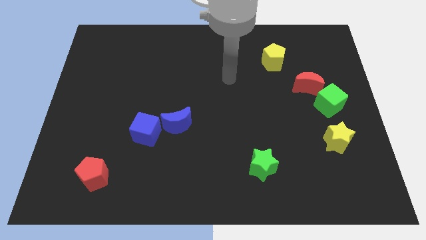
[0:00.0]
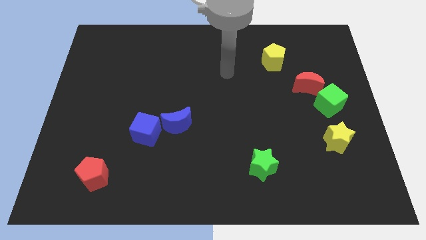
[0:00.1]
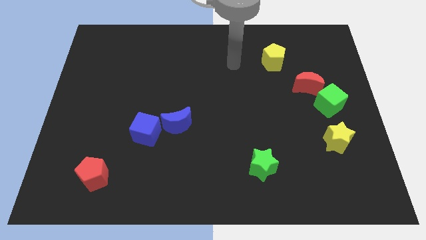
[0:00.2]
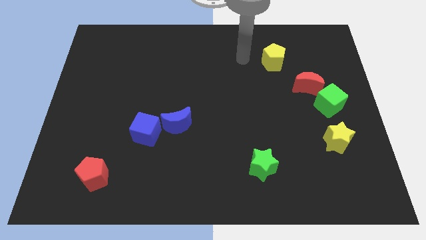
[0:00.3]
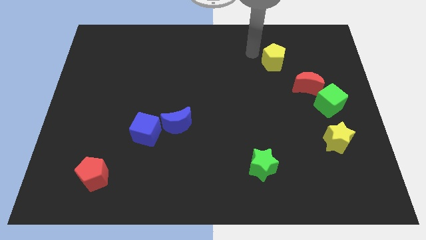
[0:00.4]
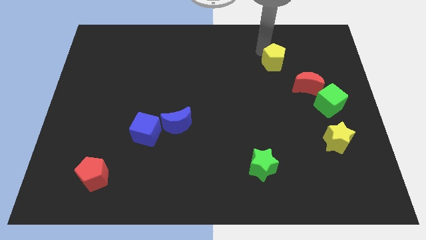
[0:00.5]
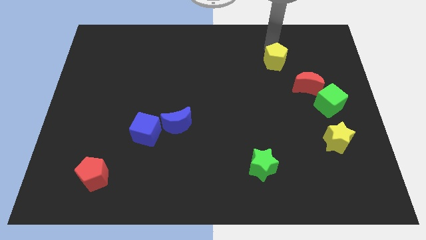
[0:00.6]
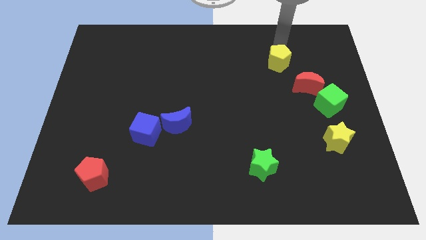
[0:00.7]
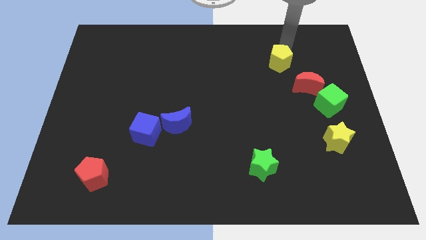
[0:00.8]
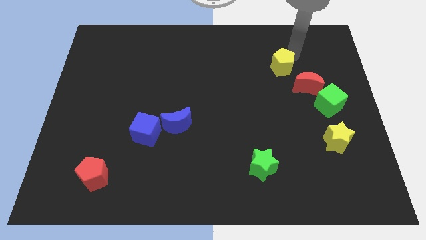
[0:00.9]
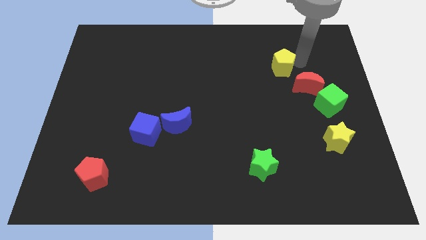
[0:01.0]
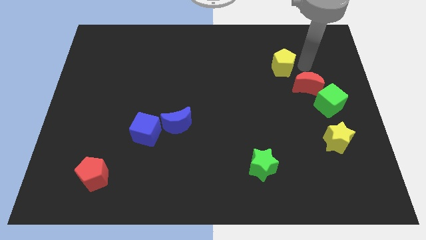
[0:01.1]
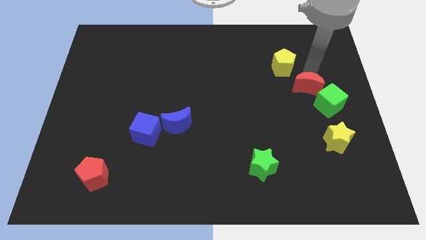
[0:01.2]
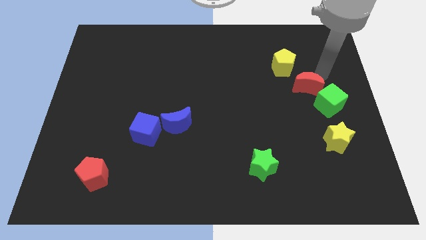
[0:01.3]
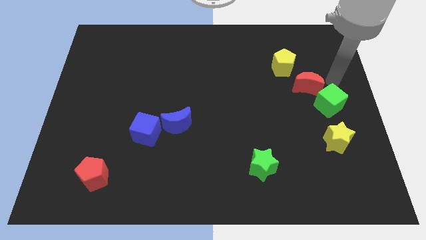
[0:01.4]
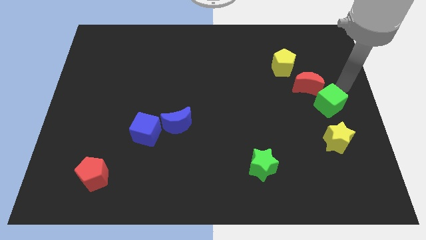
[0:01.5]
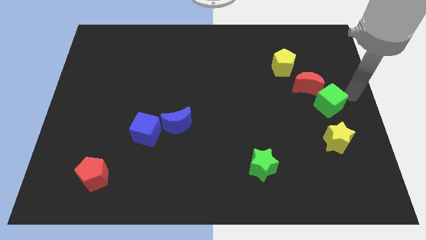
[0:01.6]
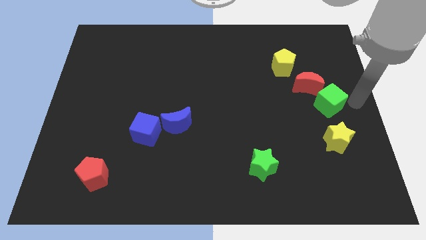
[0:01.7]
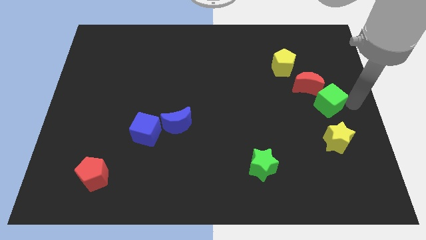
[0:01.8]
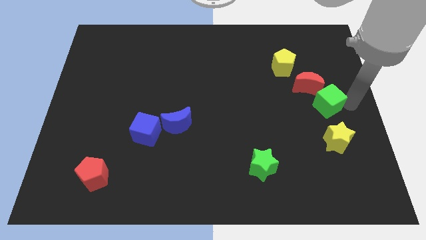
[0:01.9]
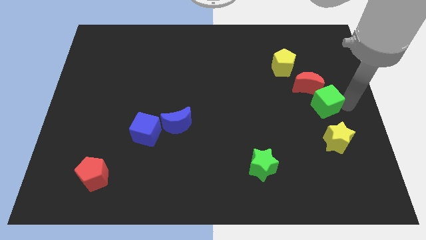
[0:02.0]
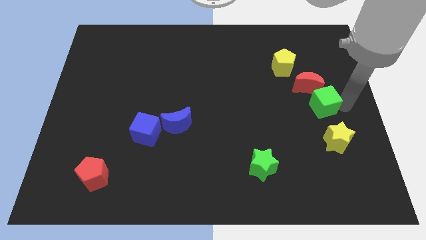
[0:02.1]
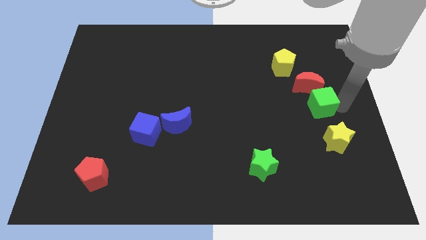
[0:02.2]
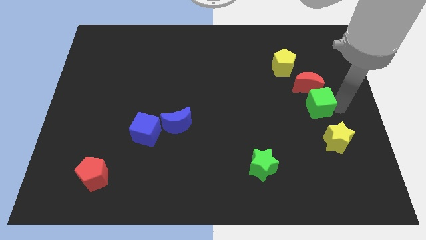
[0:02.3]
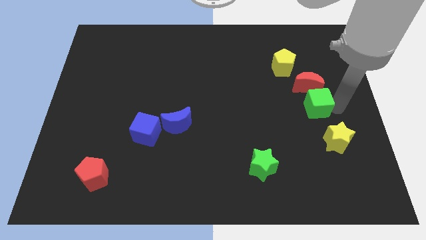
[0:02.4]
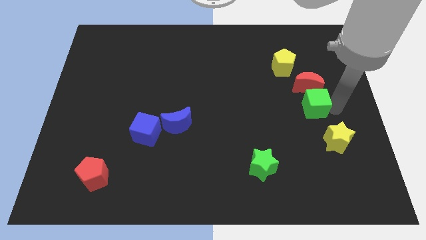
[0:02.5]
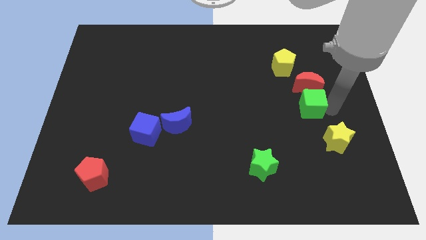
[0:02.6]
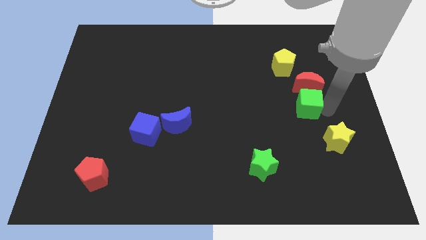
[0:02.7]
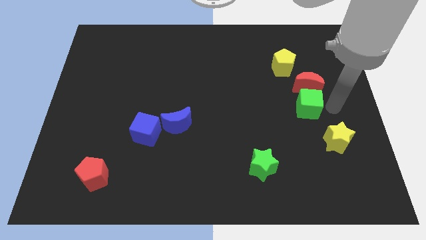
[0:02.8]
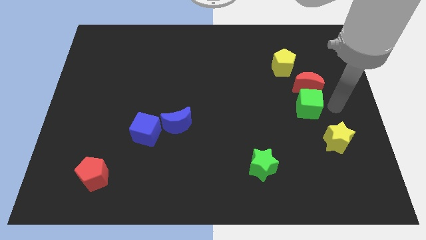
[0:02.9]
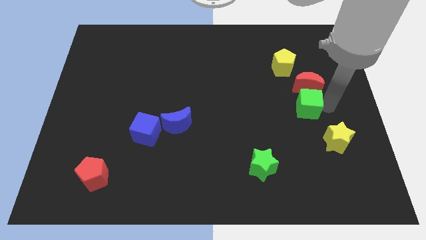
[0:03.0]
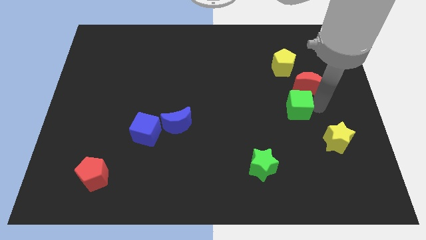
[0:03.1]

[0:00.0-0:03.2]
slightly move the green cube left

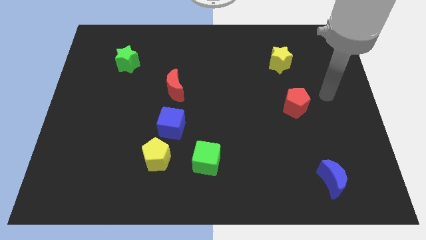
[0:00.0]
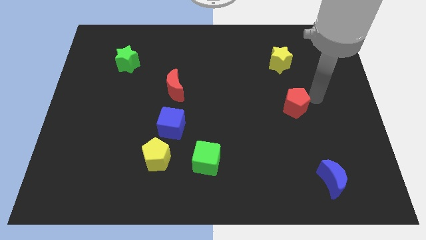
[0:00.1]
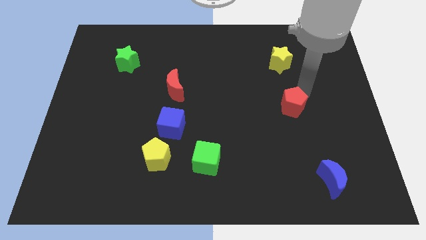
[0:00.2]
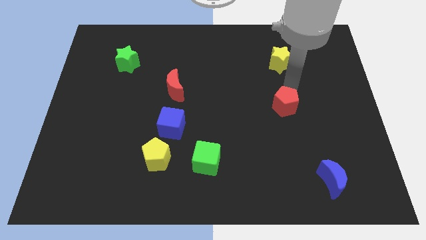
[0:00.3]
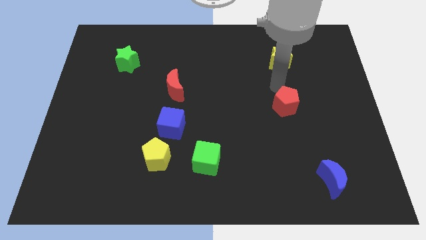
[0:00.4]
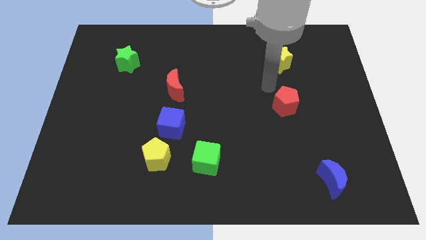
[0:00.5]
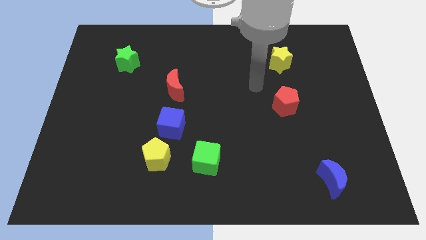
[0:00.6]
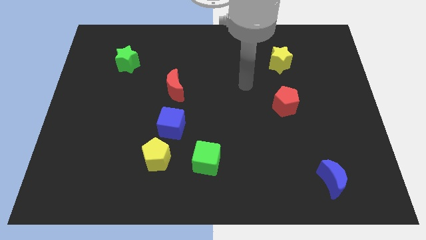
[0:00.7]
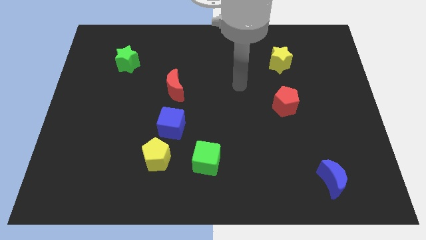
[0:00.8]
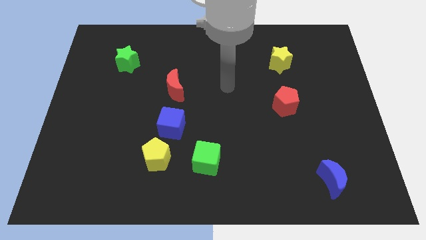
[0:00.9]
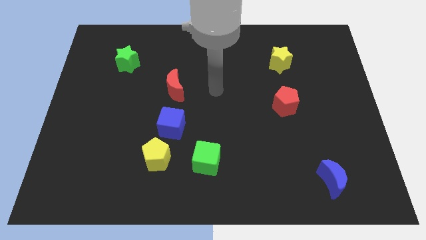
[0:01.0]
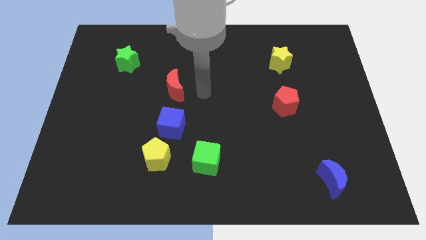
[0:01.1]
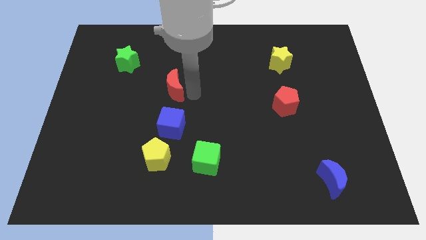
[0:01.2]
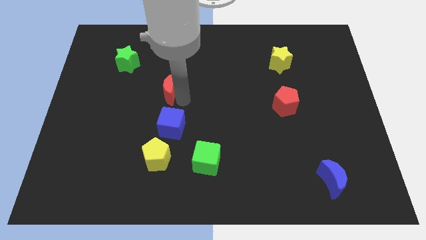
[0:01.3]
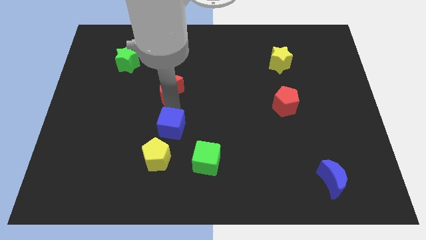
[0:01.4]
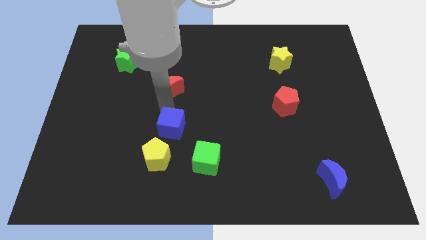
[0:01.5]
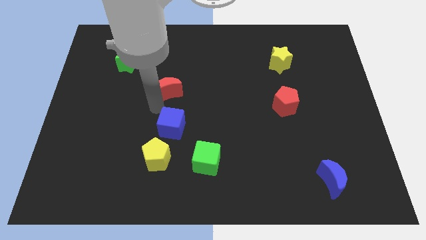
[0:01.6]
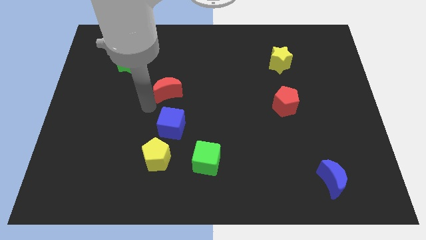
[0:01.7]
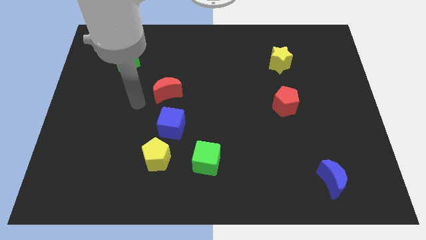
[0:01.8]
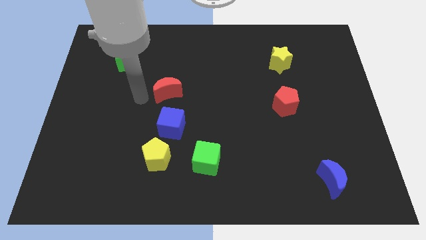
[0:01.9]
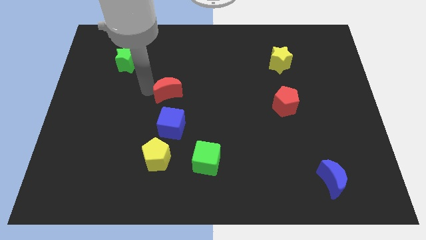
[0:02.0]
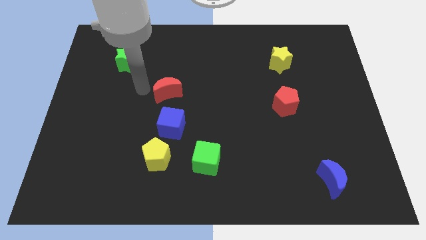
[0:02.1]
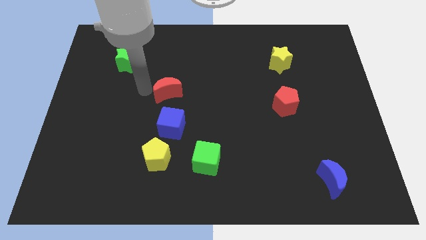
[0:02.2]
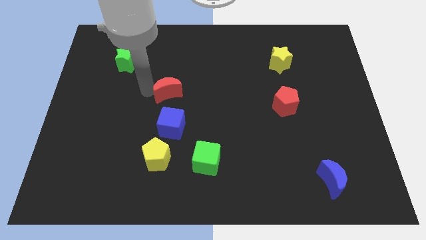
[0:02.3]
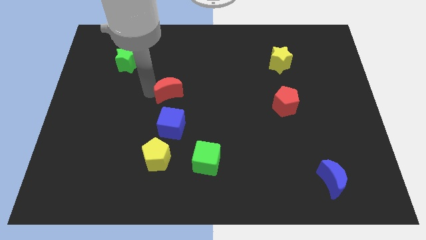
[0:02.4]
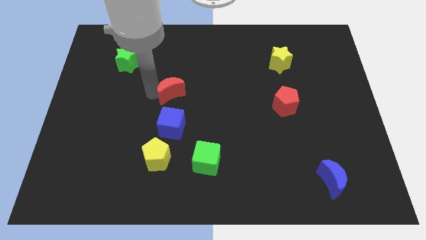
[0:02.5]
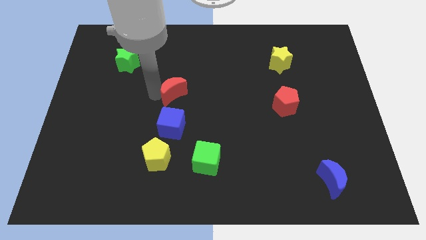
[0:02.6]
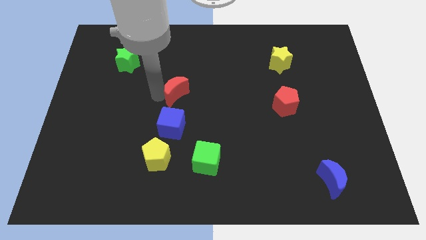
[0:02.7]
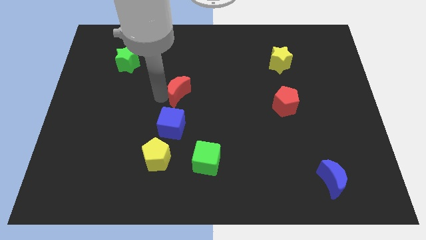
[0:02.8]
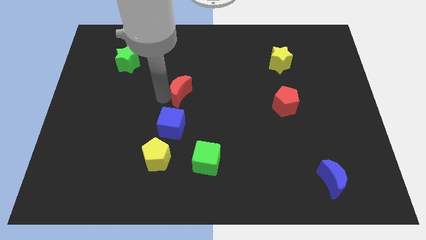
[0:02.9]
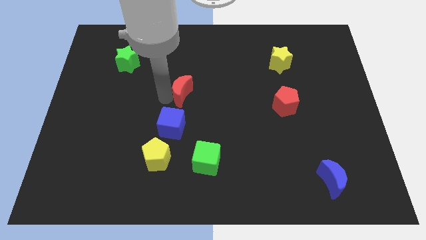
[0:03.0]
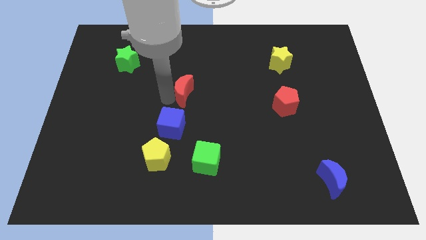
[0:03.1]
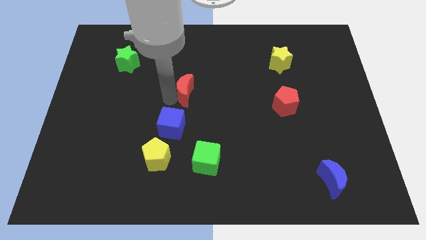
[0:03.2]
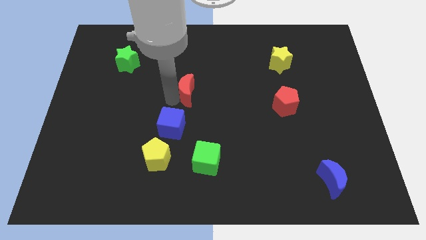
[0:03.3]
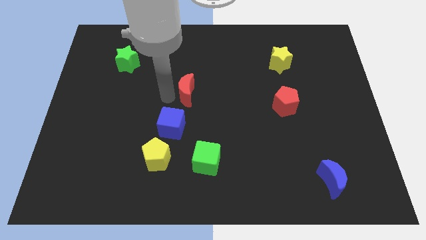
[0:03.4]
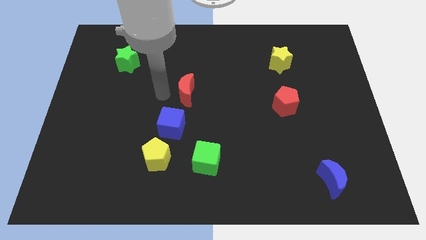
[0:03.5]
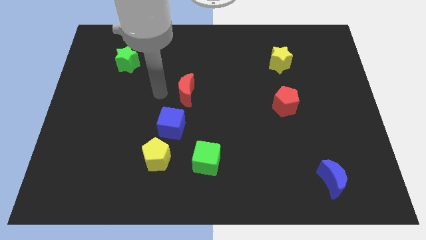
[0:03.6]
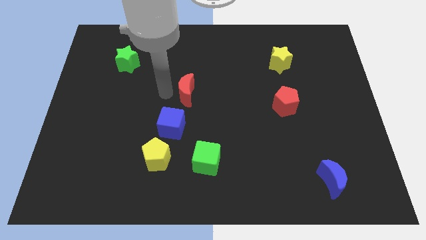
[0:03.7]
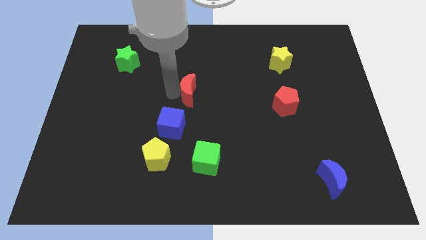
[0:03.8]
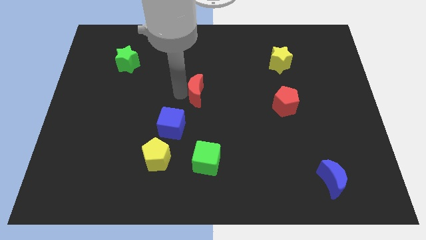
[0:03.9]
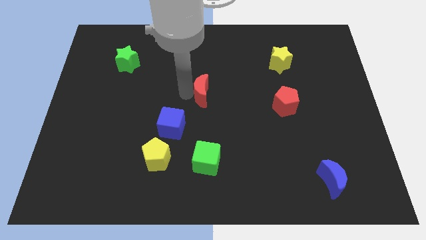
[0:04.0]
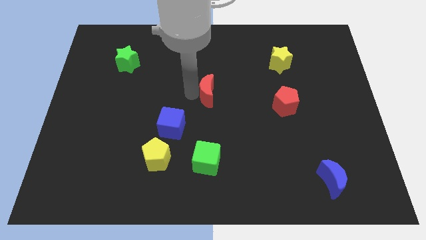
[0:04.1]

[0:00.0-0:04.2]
push the red moon slightly right

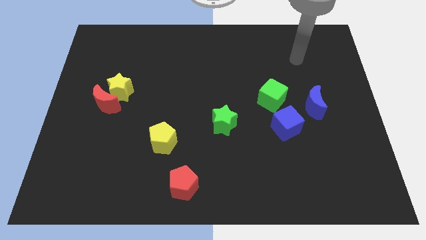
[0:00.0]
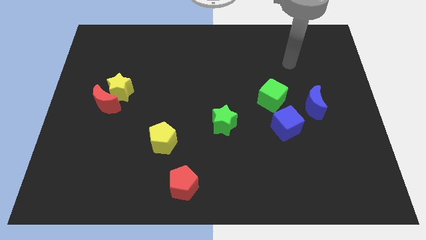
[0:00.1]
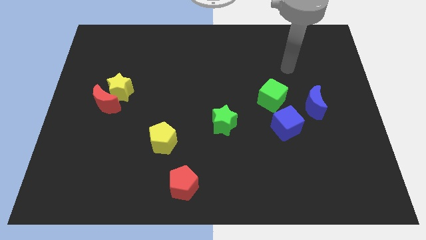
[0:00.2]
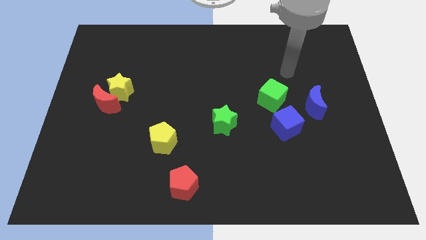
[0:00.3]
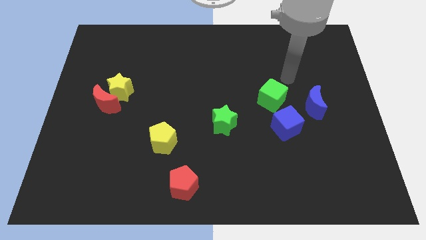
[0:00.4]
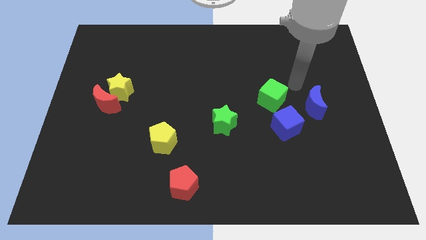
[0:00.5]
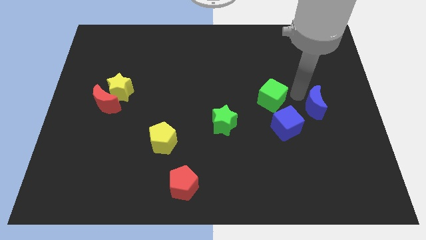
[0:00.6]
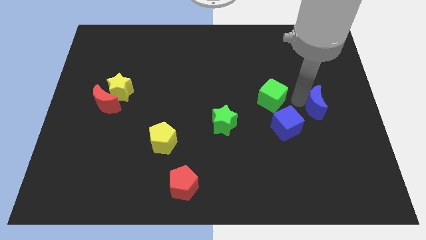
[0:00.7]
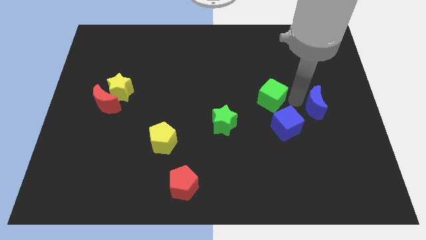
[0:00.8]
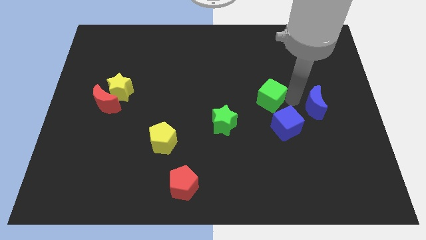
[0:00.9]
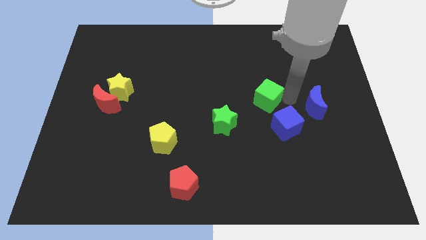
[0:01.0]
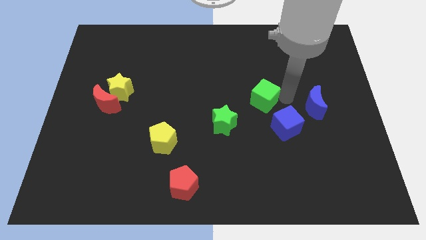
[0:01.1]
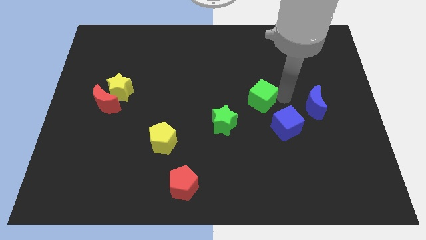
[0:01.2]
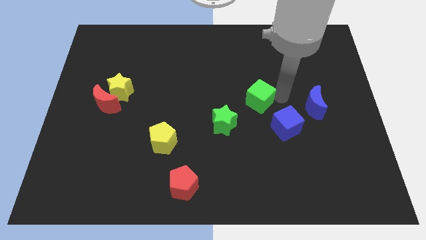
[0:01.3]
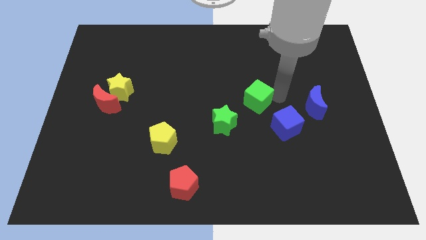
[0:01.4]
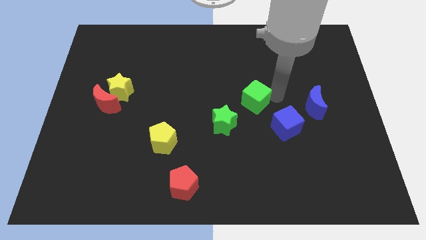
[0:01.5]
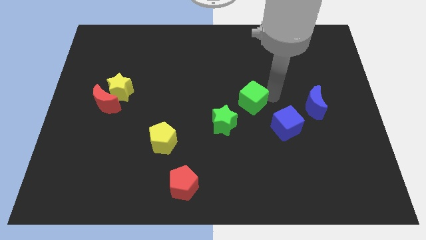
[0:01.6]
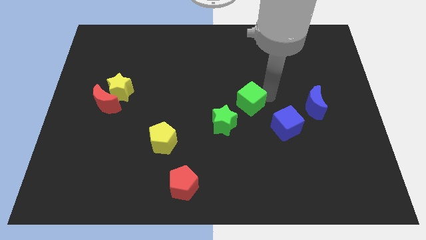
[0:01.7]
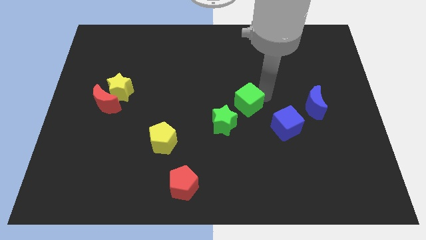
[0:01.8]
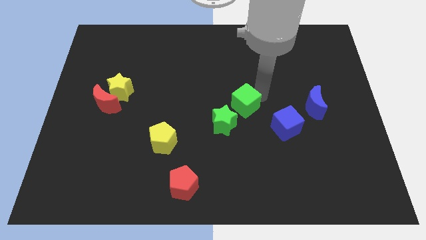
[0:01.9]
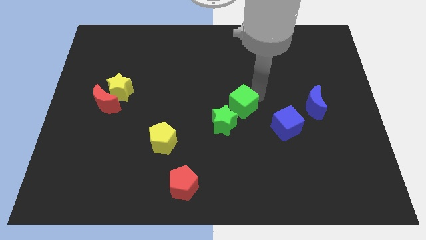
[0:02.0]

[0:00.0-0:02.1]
slightly move the green cube to the left
